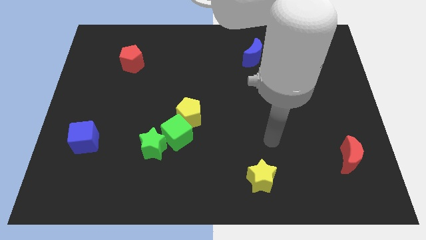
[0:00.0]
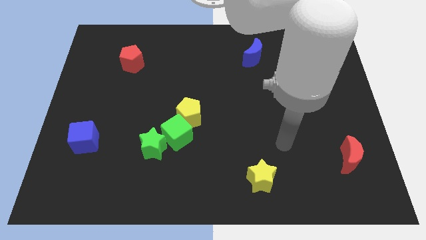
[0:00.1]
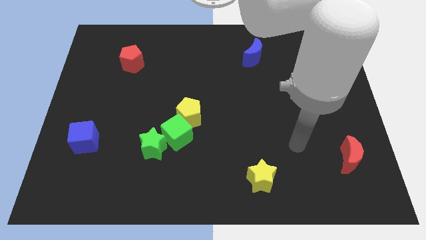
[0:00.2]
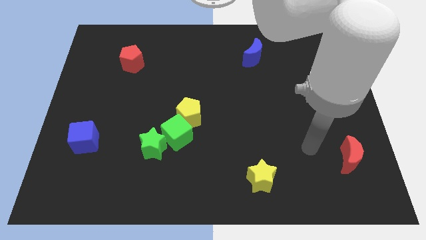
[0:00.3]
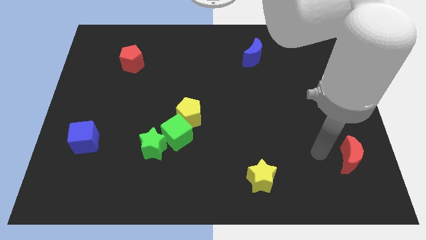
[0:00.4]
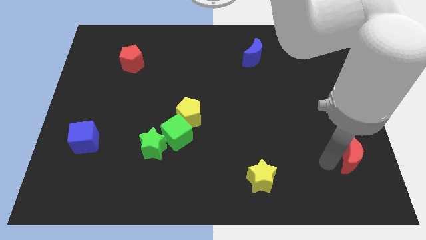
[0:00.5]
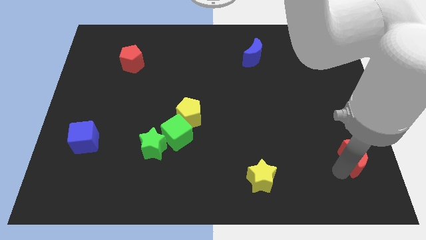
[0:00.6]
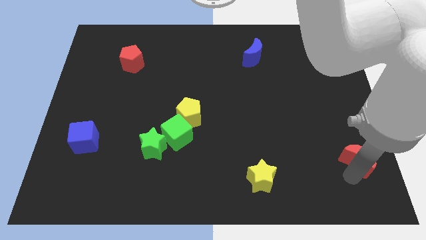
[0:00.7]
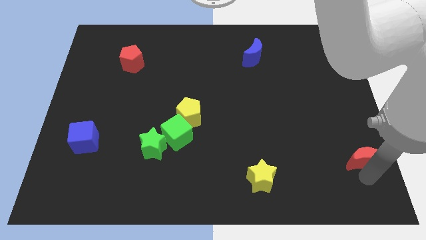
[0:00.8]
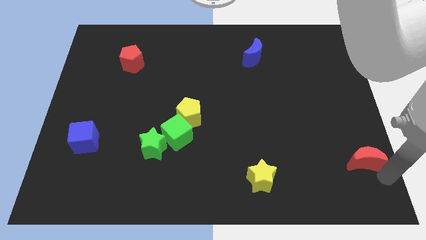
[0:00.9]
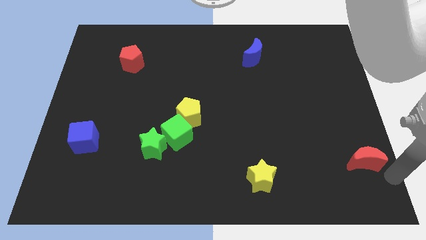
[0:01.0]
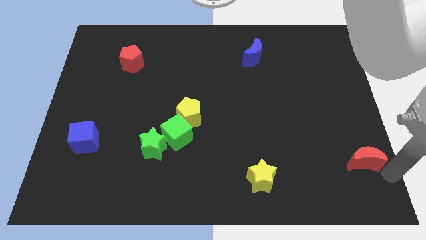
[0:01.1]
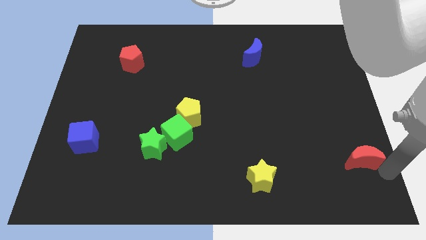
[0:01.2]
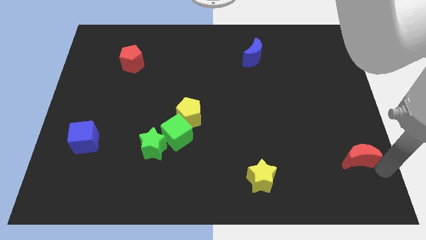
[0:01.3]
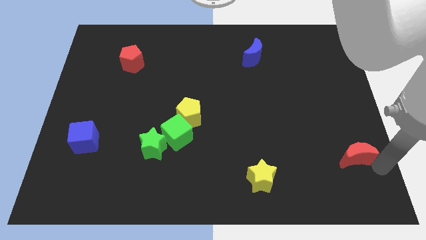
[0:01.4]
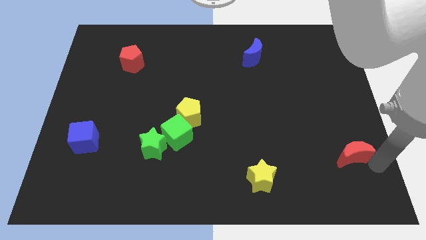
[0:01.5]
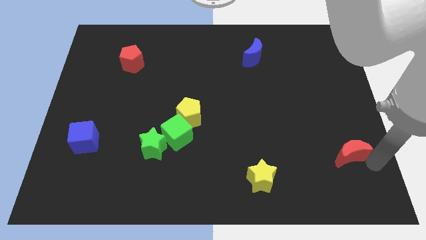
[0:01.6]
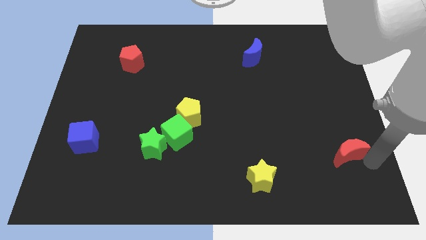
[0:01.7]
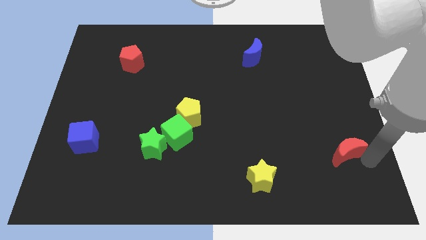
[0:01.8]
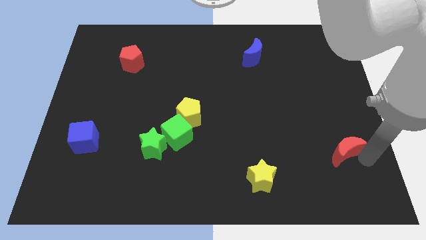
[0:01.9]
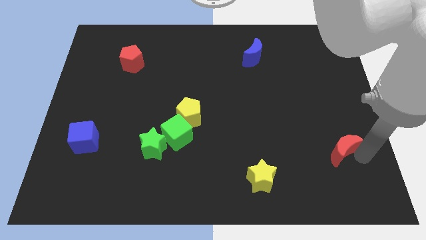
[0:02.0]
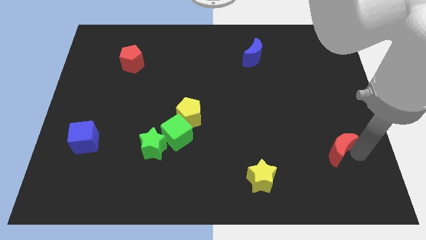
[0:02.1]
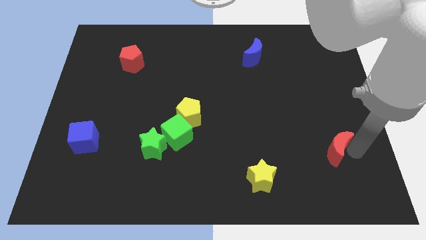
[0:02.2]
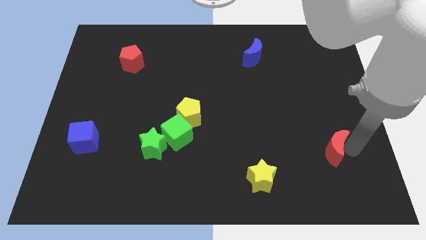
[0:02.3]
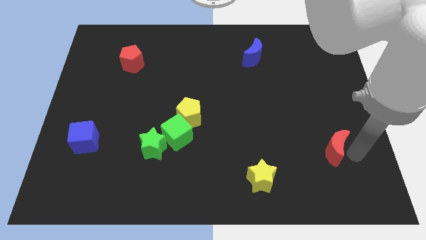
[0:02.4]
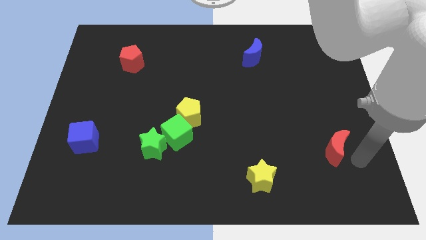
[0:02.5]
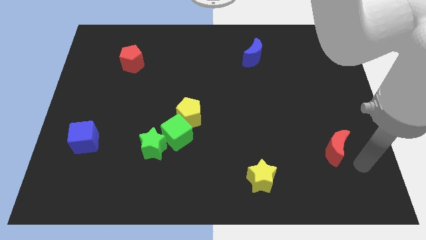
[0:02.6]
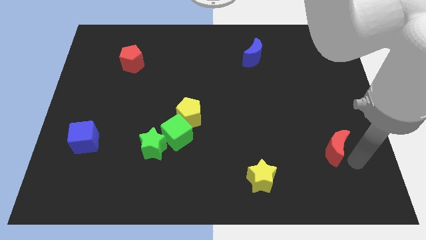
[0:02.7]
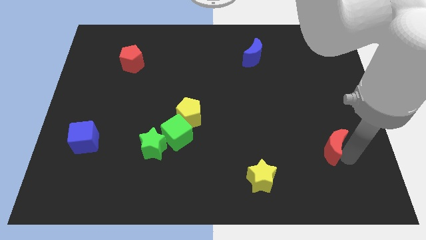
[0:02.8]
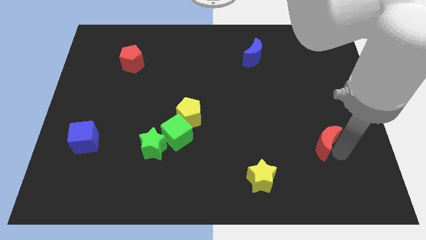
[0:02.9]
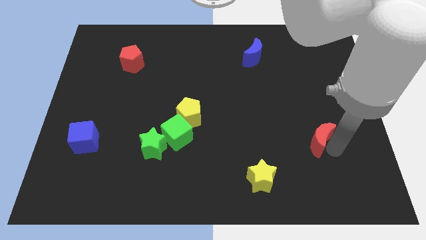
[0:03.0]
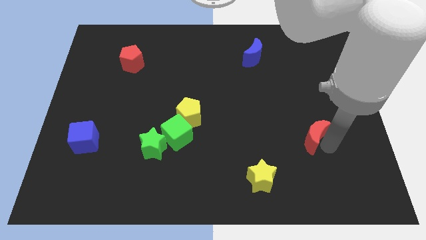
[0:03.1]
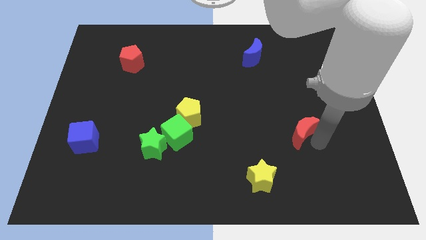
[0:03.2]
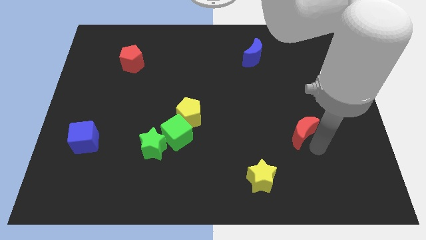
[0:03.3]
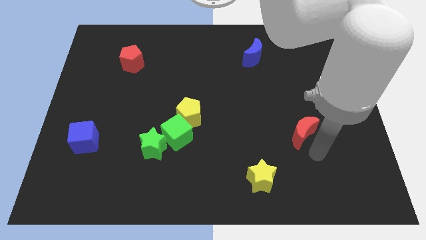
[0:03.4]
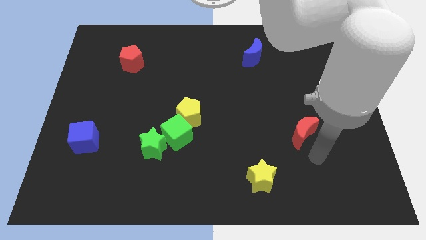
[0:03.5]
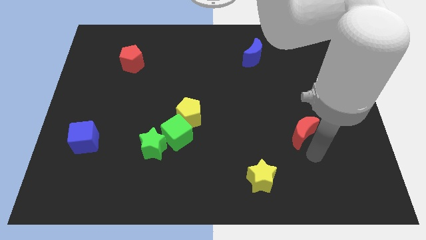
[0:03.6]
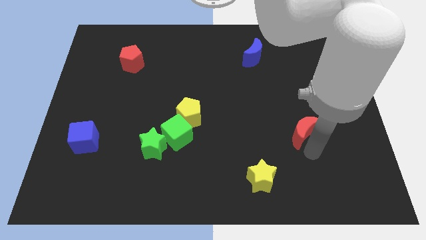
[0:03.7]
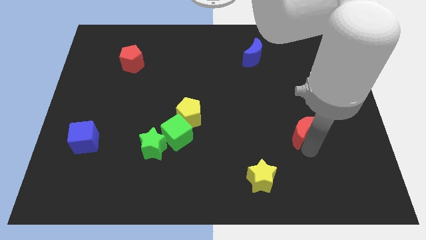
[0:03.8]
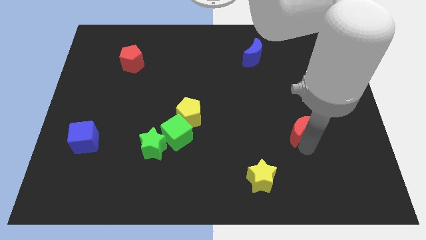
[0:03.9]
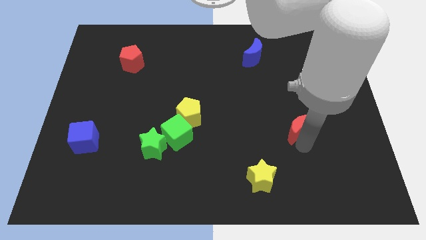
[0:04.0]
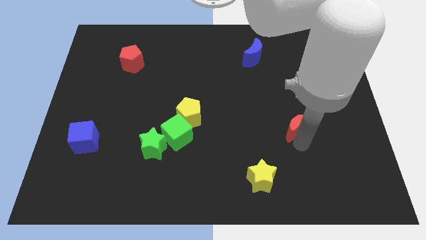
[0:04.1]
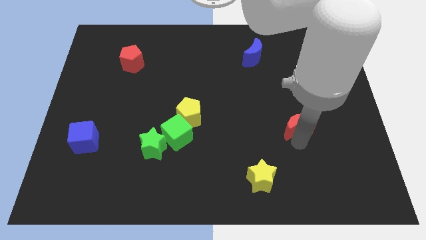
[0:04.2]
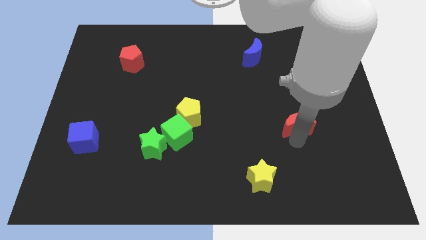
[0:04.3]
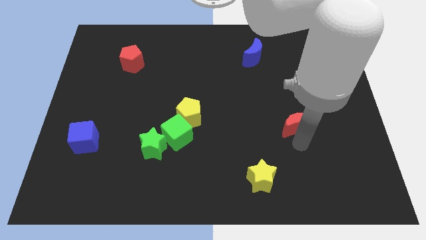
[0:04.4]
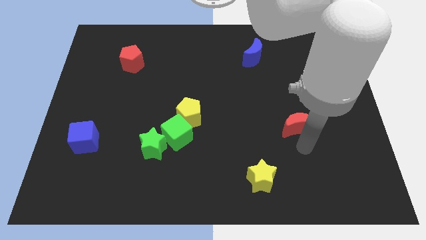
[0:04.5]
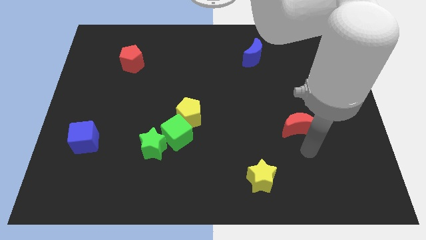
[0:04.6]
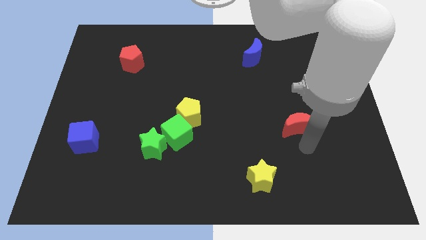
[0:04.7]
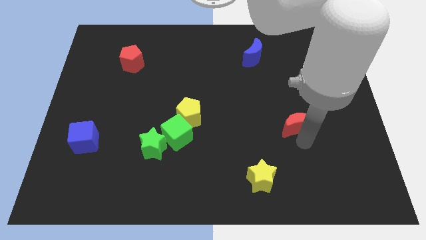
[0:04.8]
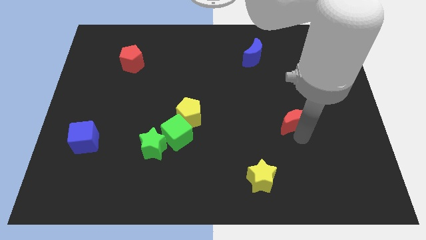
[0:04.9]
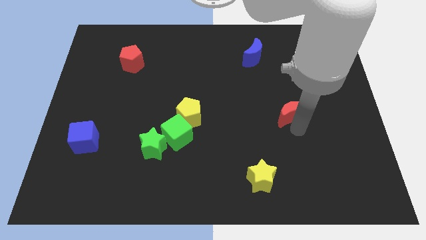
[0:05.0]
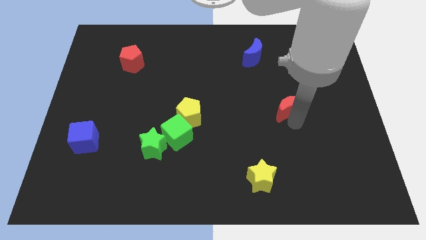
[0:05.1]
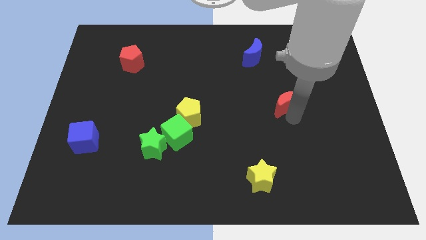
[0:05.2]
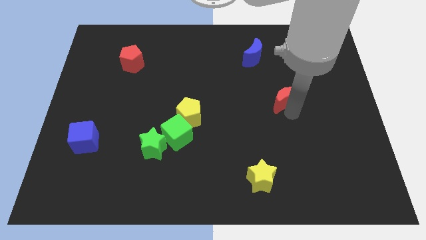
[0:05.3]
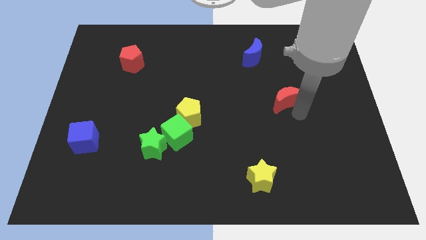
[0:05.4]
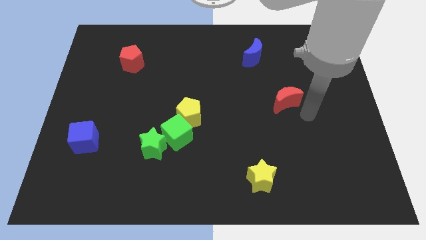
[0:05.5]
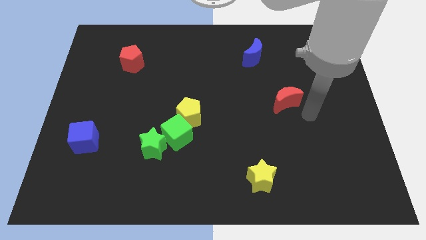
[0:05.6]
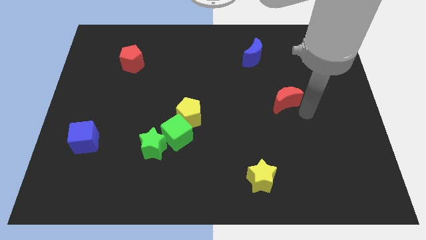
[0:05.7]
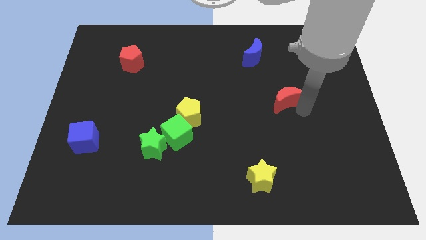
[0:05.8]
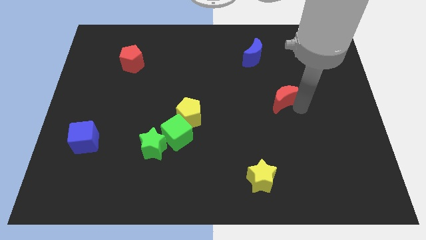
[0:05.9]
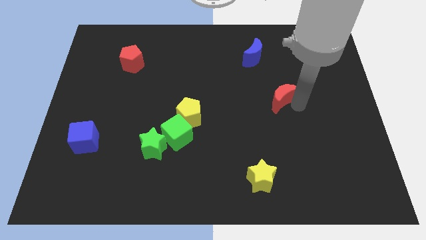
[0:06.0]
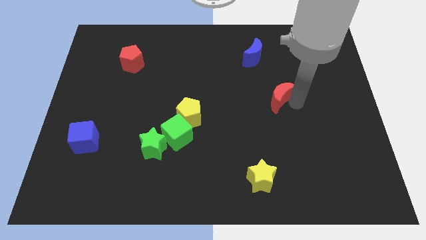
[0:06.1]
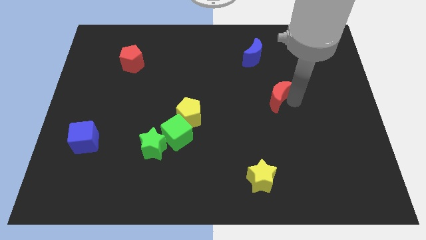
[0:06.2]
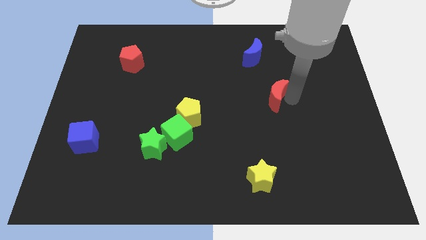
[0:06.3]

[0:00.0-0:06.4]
push the red moon to the bottom of the blue moon
